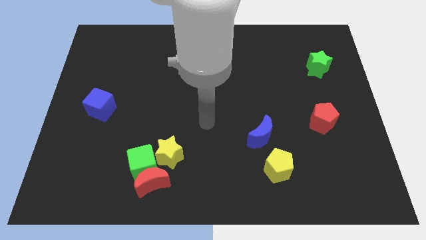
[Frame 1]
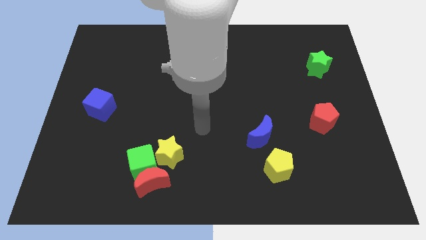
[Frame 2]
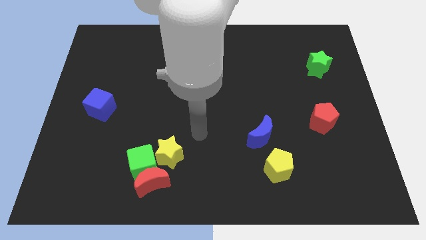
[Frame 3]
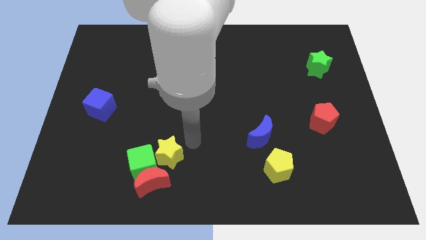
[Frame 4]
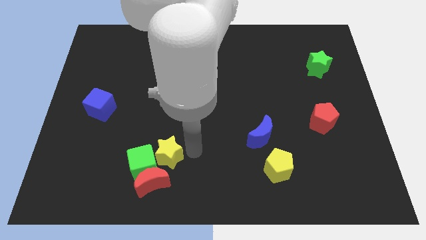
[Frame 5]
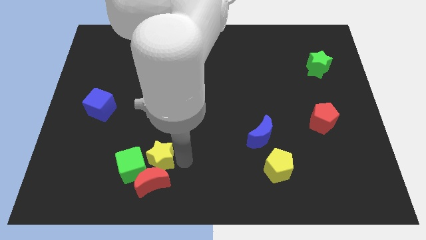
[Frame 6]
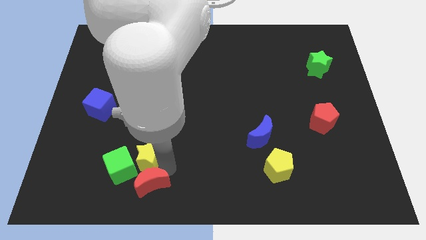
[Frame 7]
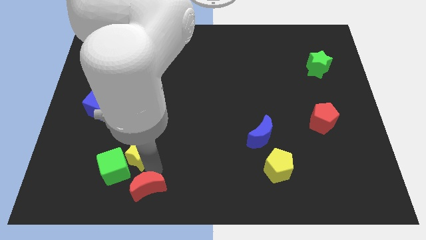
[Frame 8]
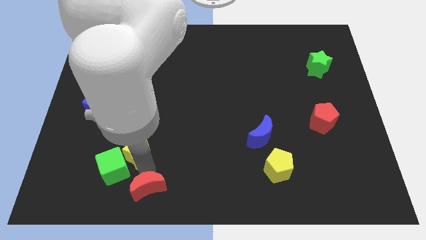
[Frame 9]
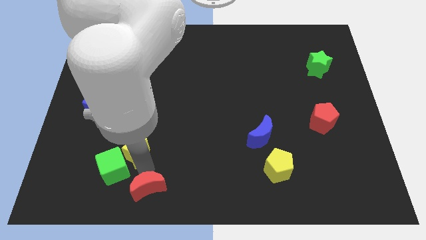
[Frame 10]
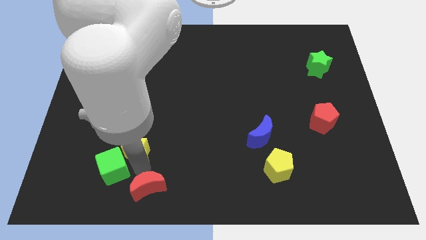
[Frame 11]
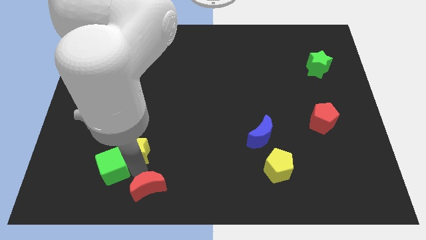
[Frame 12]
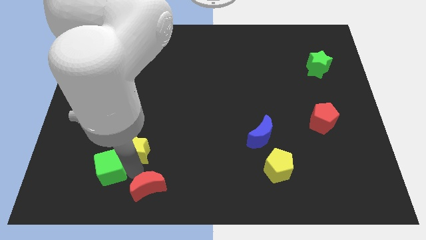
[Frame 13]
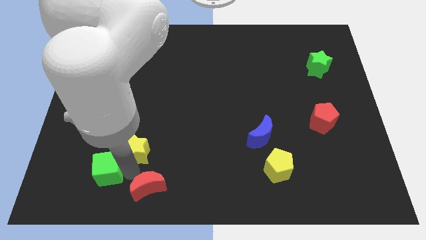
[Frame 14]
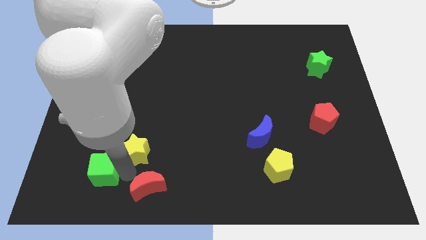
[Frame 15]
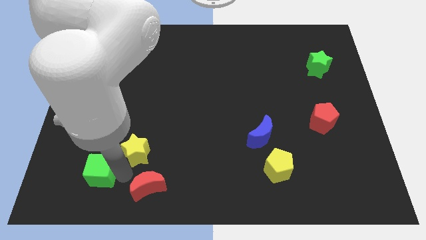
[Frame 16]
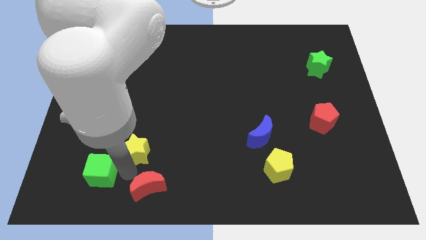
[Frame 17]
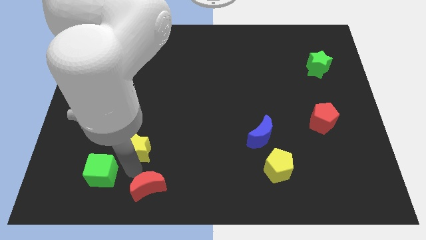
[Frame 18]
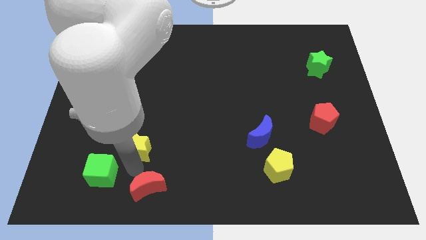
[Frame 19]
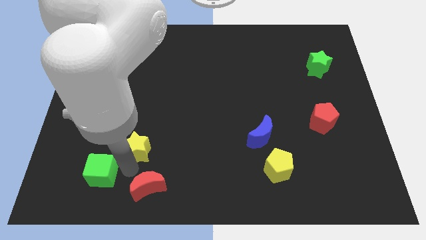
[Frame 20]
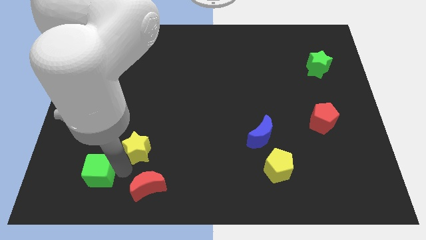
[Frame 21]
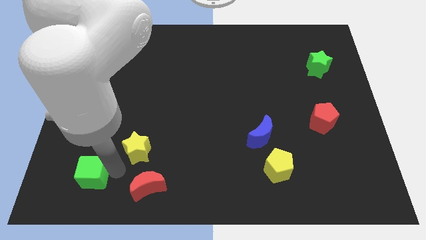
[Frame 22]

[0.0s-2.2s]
pull the green cube apart from the red moon and yellow star

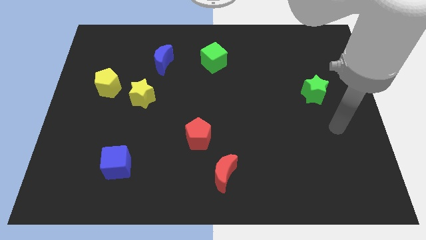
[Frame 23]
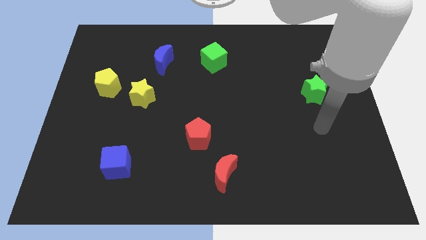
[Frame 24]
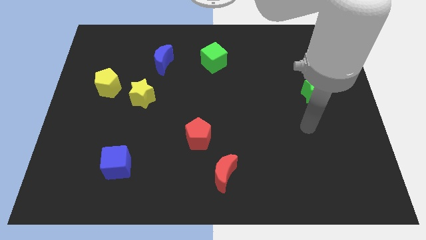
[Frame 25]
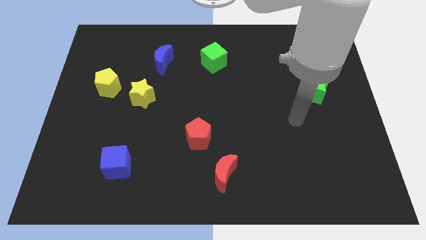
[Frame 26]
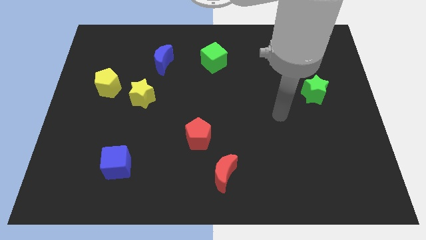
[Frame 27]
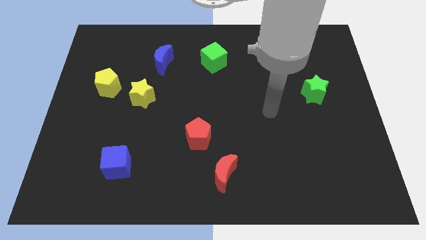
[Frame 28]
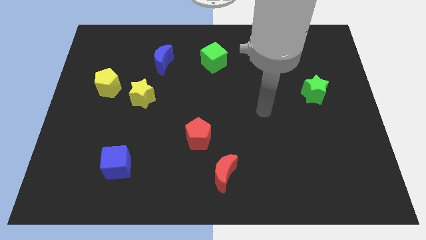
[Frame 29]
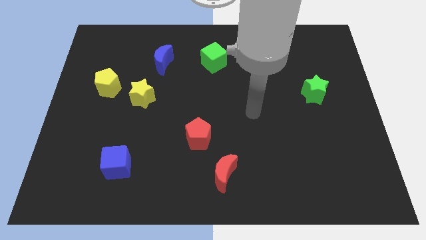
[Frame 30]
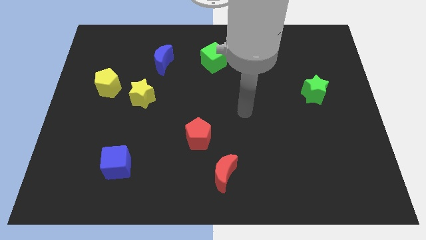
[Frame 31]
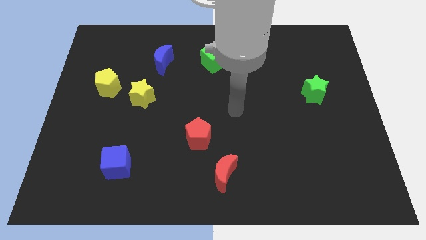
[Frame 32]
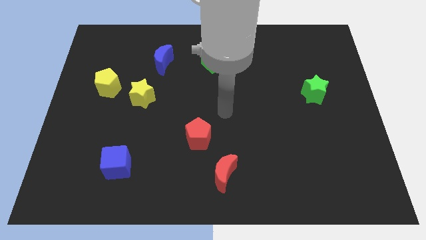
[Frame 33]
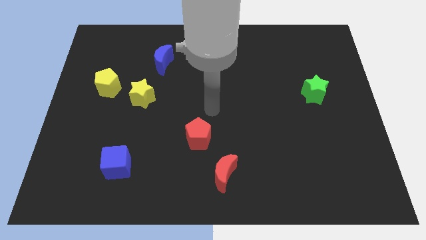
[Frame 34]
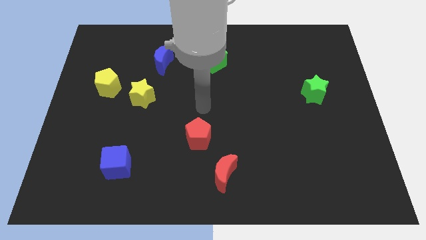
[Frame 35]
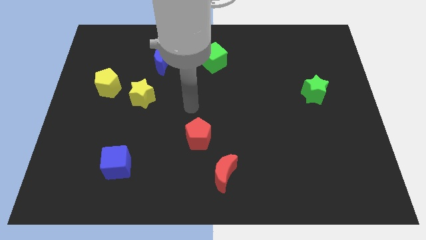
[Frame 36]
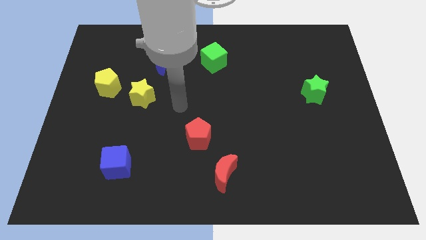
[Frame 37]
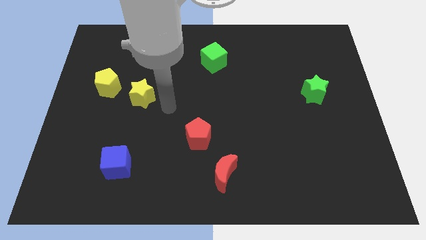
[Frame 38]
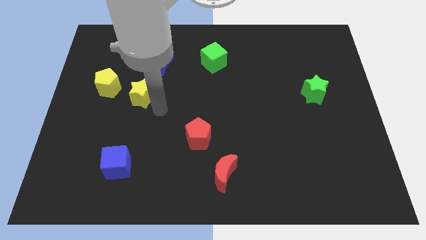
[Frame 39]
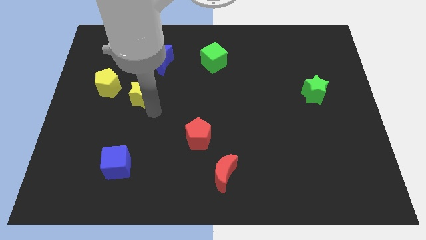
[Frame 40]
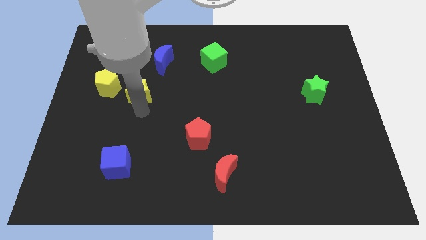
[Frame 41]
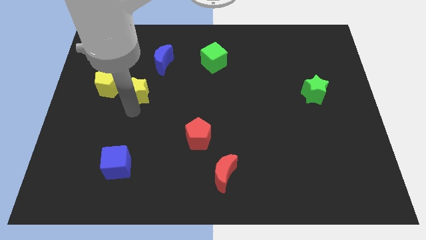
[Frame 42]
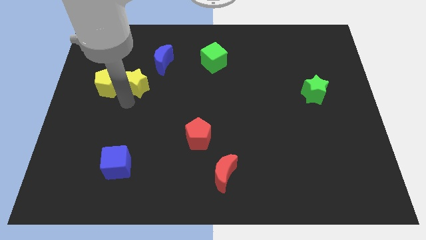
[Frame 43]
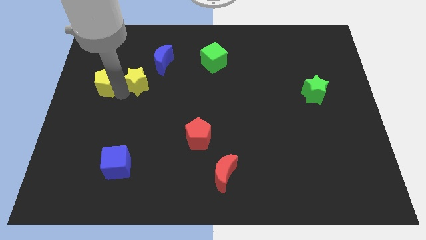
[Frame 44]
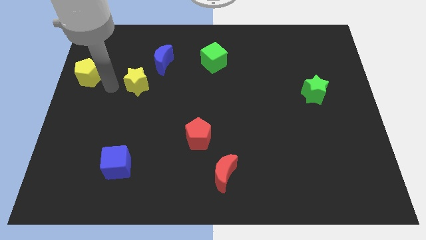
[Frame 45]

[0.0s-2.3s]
separate the yellow star from the yellow pentagon

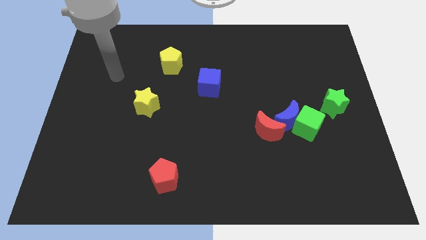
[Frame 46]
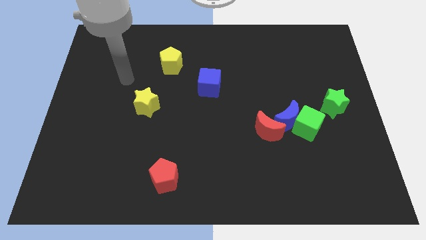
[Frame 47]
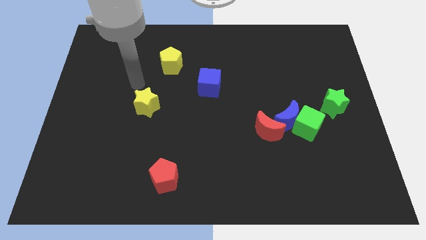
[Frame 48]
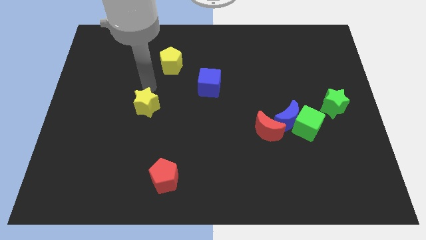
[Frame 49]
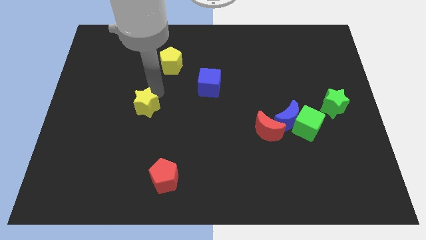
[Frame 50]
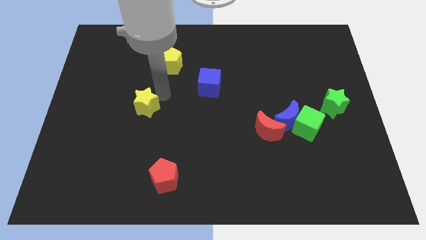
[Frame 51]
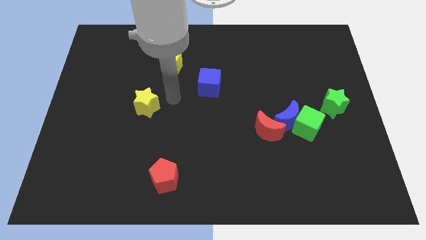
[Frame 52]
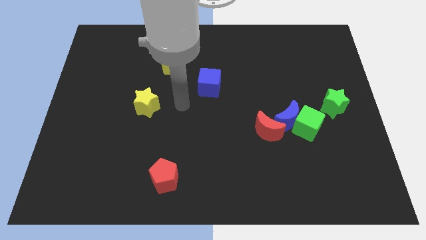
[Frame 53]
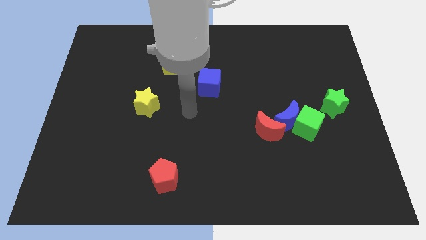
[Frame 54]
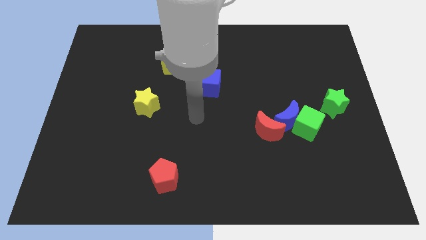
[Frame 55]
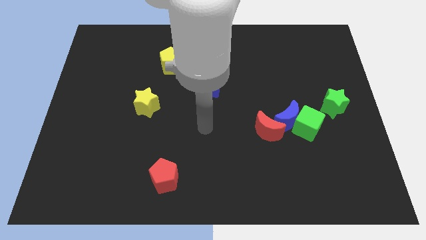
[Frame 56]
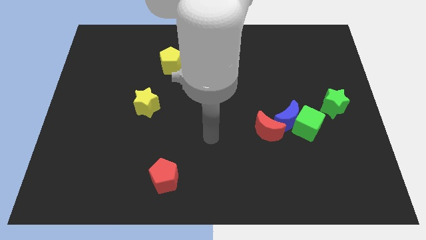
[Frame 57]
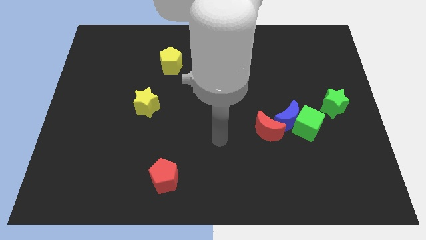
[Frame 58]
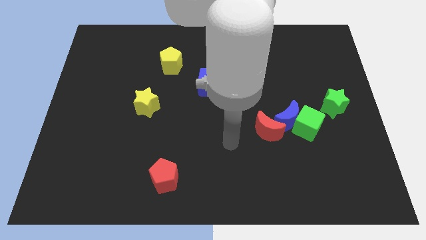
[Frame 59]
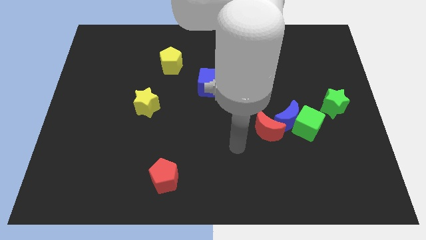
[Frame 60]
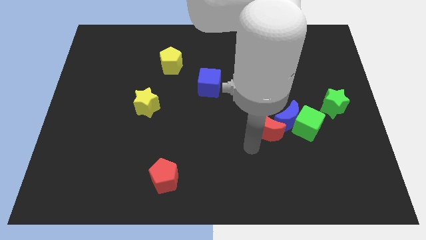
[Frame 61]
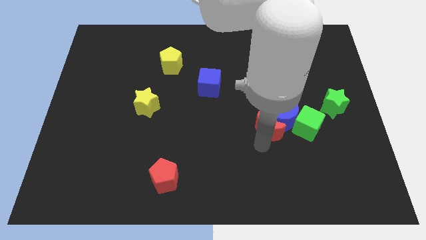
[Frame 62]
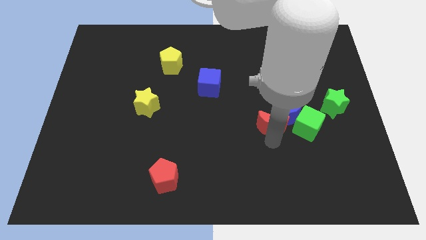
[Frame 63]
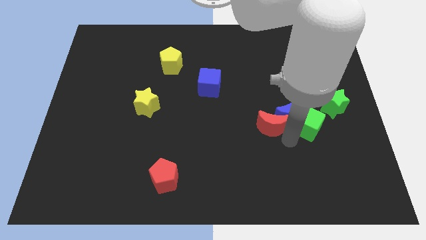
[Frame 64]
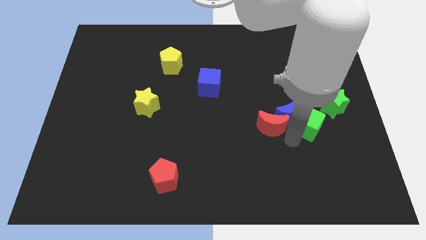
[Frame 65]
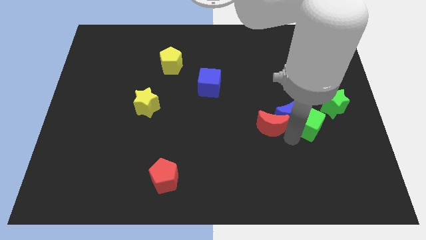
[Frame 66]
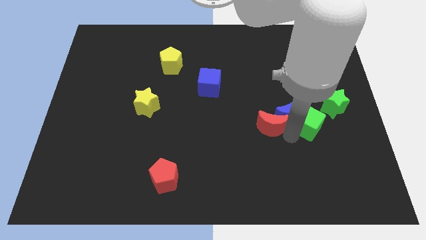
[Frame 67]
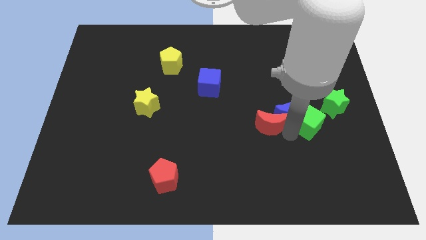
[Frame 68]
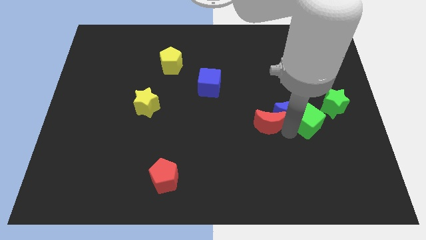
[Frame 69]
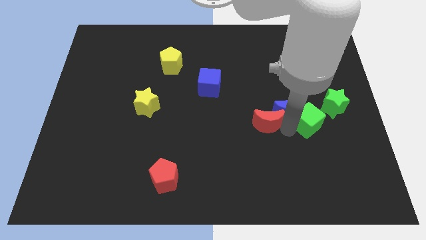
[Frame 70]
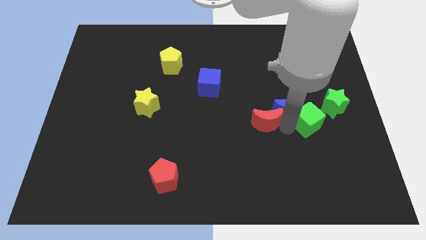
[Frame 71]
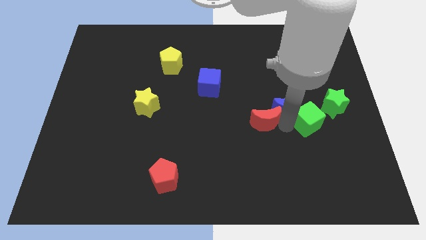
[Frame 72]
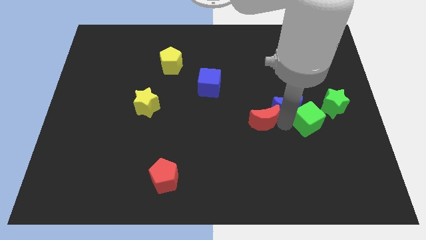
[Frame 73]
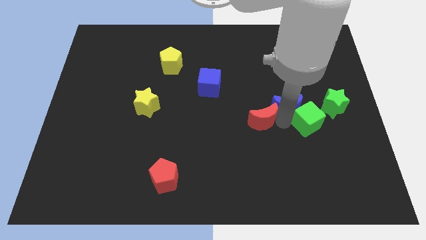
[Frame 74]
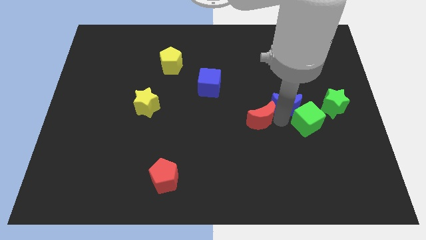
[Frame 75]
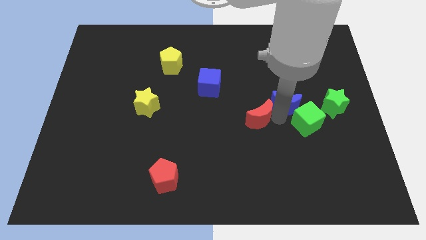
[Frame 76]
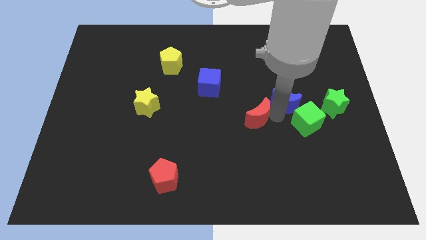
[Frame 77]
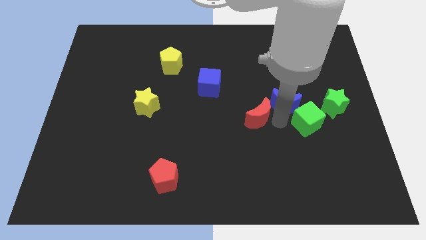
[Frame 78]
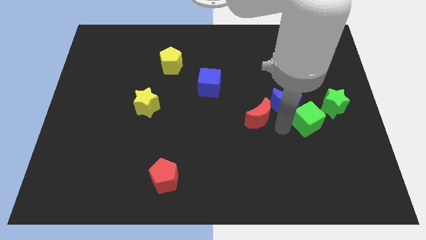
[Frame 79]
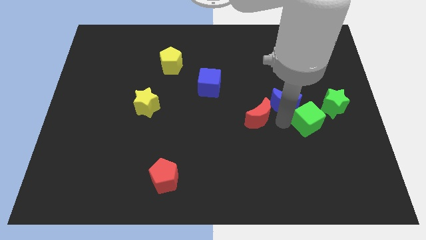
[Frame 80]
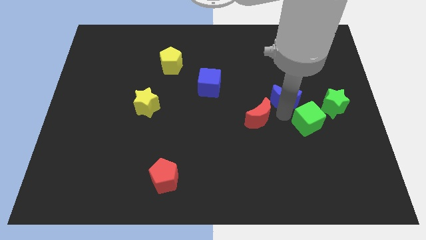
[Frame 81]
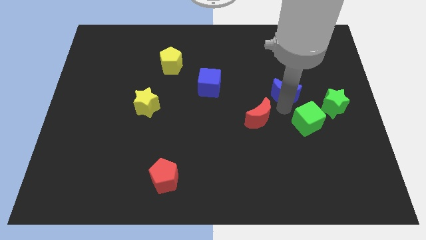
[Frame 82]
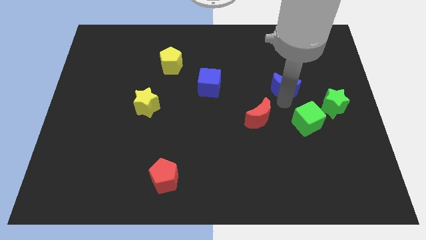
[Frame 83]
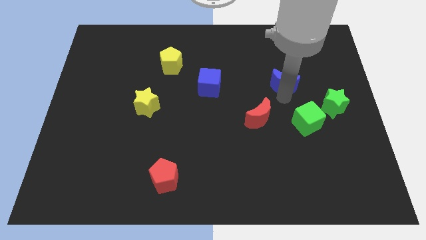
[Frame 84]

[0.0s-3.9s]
separate the blue moon from the green cube and red moon

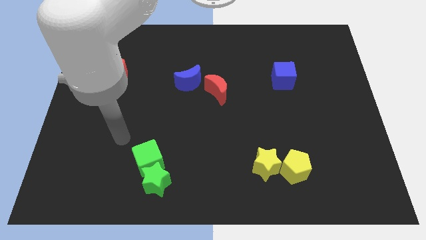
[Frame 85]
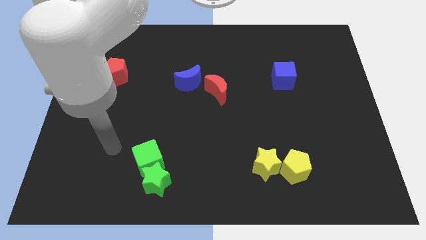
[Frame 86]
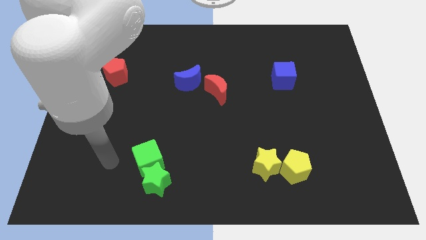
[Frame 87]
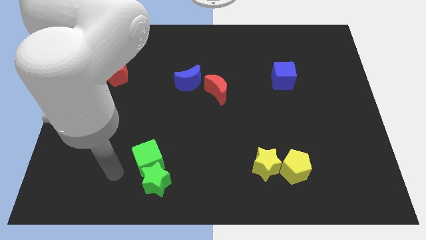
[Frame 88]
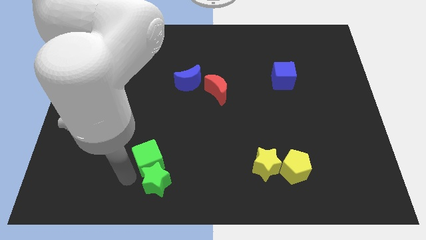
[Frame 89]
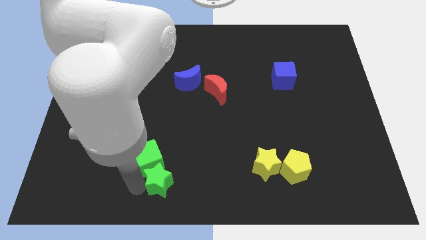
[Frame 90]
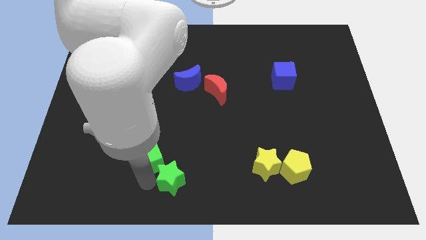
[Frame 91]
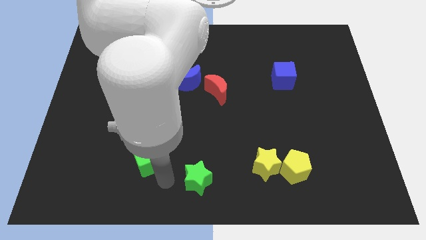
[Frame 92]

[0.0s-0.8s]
pull the green cube apart from the green star

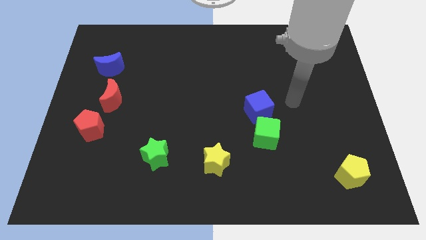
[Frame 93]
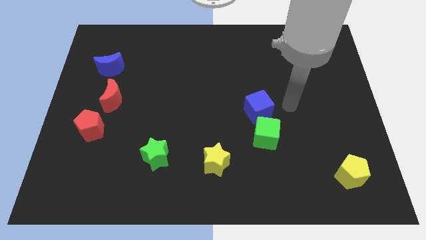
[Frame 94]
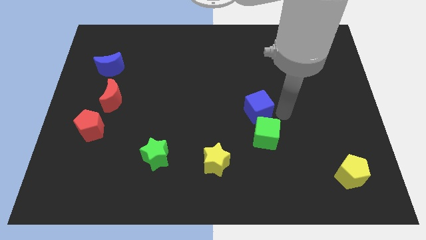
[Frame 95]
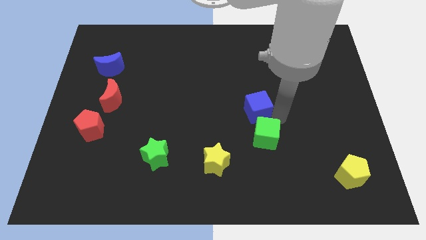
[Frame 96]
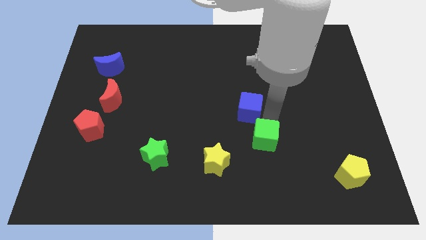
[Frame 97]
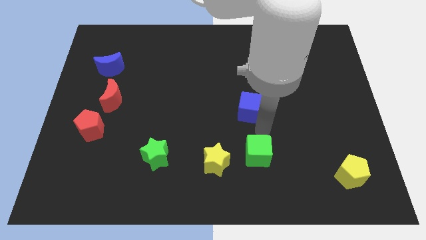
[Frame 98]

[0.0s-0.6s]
pull the blue cube apart from the green cube
